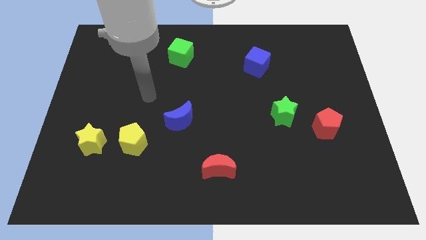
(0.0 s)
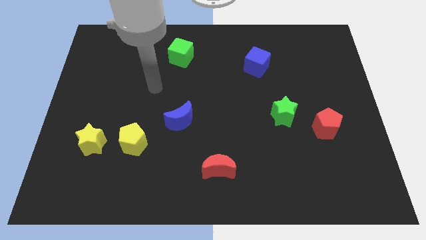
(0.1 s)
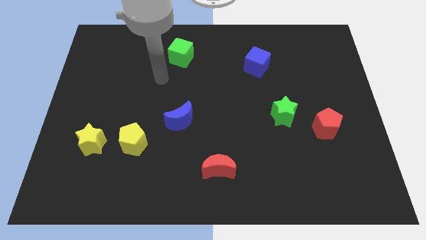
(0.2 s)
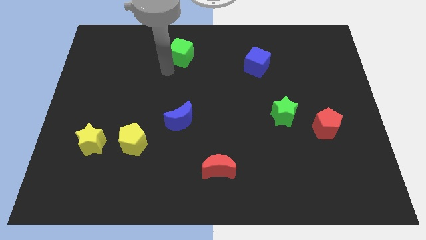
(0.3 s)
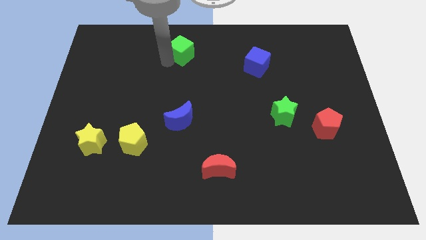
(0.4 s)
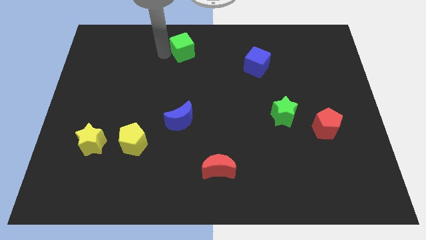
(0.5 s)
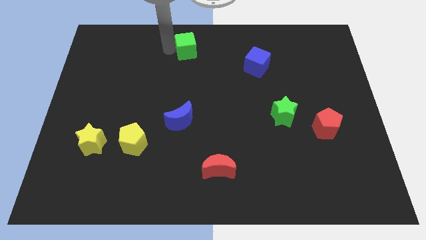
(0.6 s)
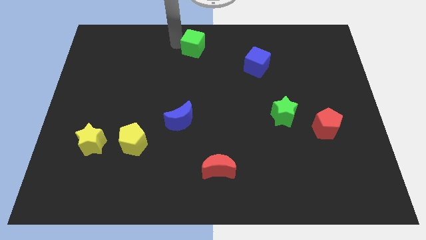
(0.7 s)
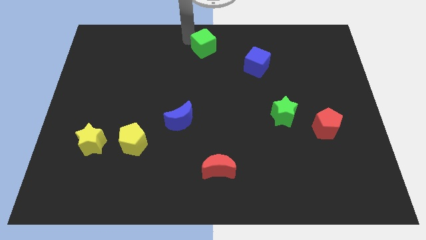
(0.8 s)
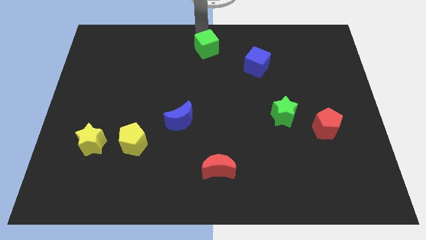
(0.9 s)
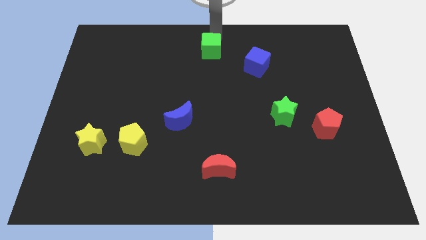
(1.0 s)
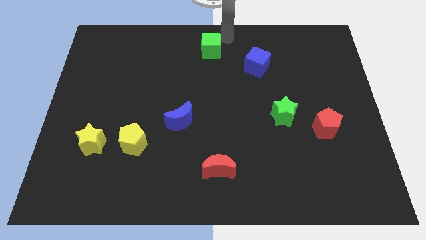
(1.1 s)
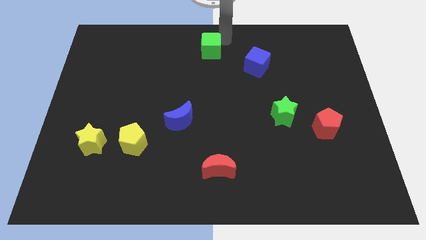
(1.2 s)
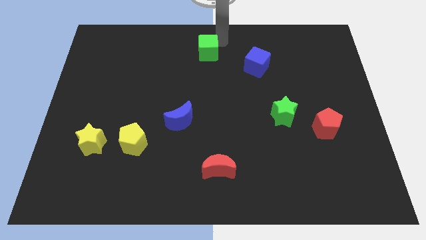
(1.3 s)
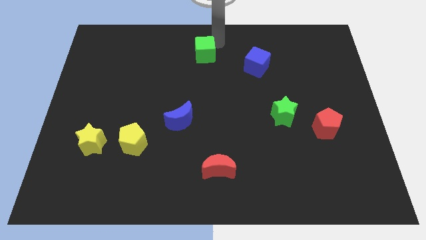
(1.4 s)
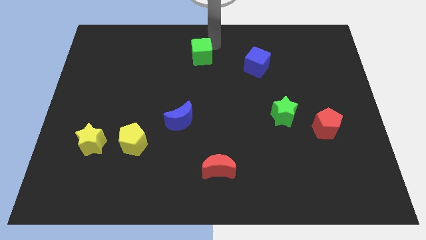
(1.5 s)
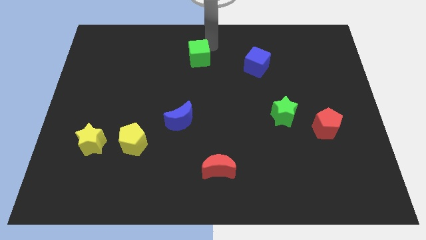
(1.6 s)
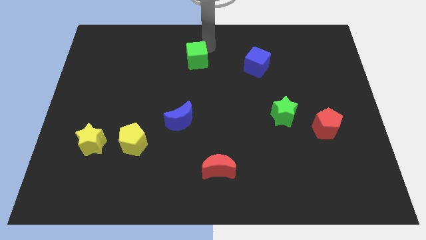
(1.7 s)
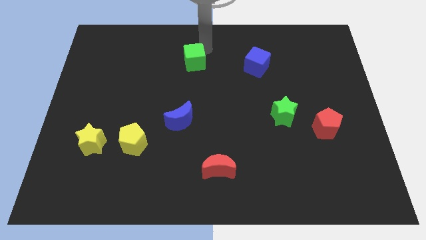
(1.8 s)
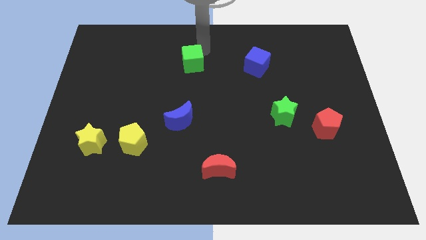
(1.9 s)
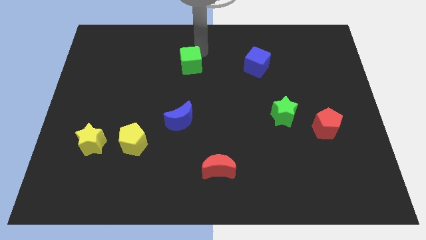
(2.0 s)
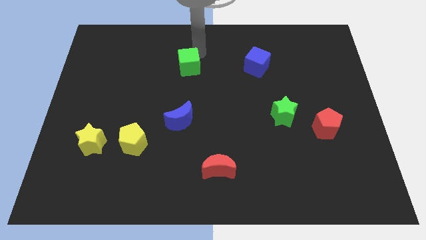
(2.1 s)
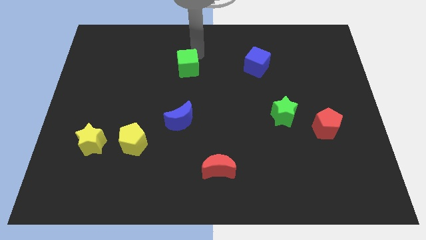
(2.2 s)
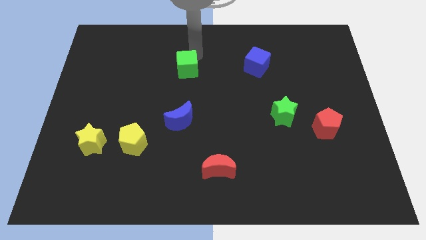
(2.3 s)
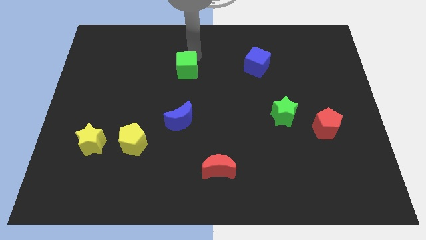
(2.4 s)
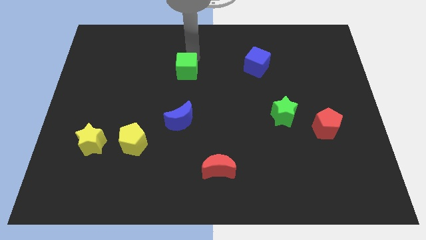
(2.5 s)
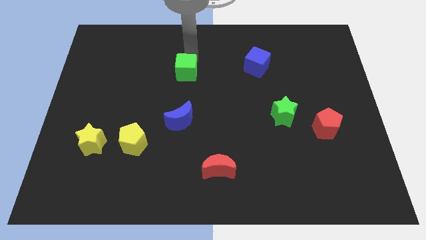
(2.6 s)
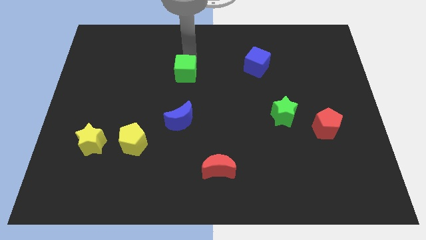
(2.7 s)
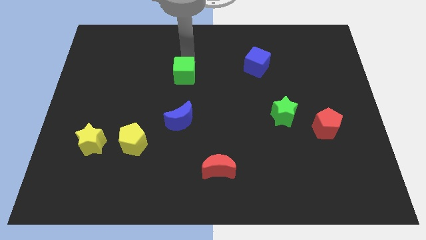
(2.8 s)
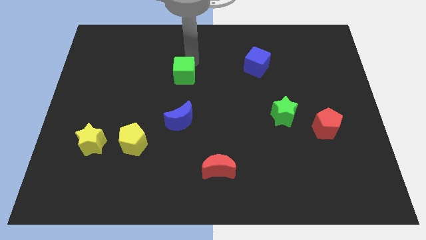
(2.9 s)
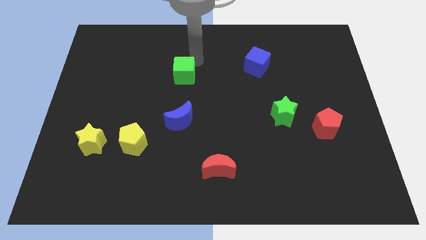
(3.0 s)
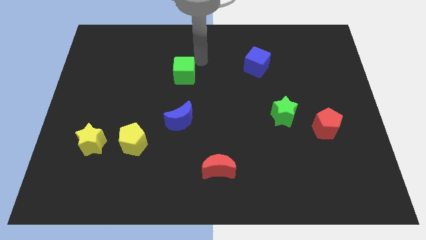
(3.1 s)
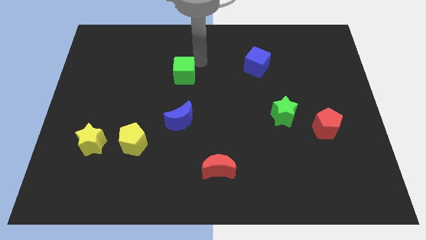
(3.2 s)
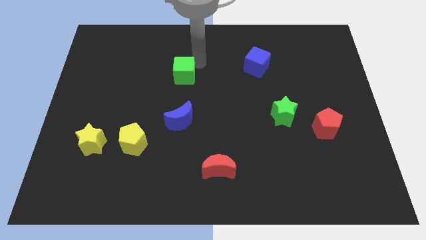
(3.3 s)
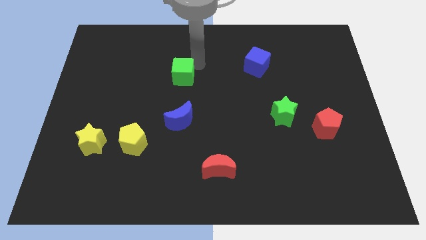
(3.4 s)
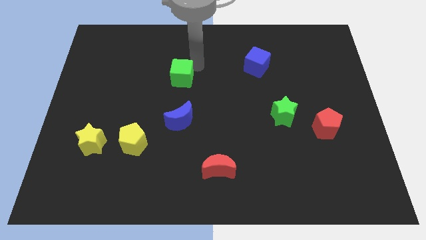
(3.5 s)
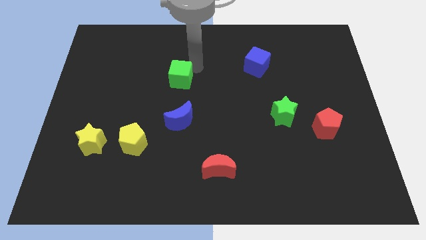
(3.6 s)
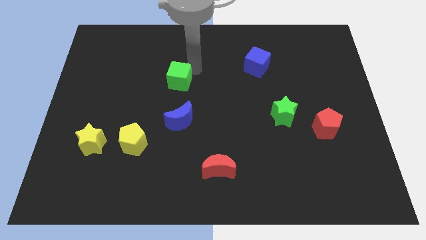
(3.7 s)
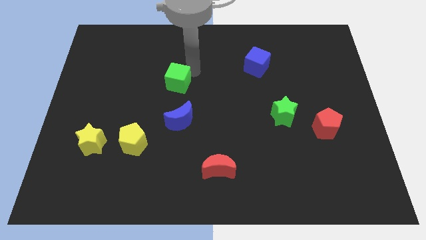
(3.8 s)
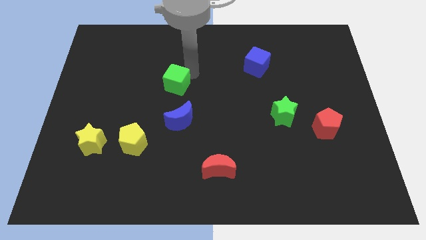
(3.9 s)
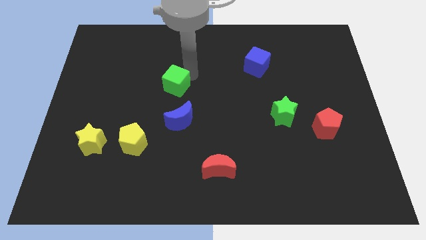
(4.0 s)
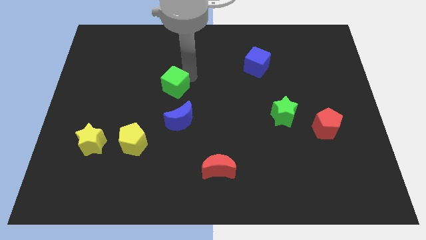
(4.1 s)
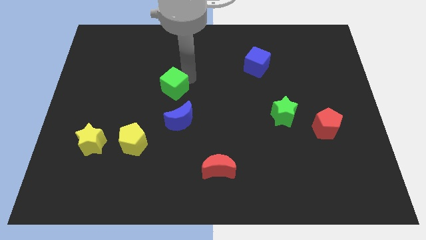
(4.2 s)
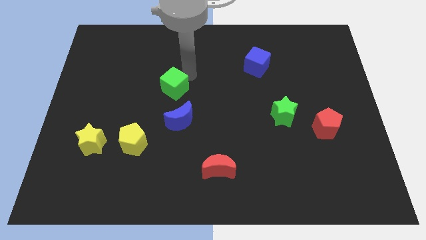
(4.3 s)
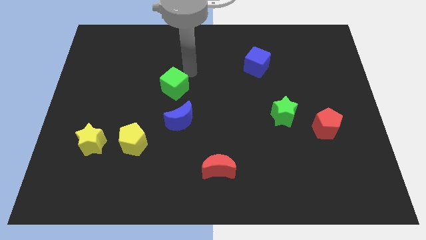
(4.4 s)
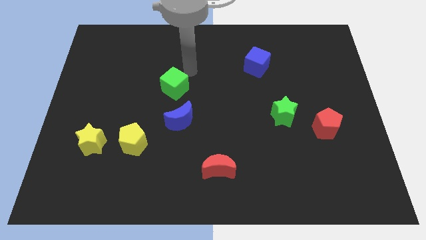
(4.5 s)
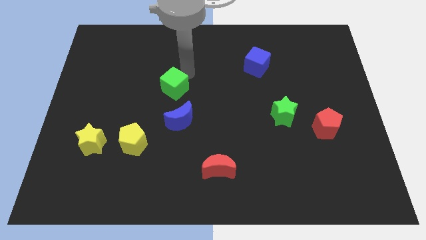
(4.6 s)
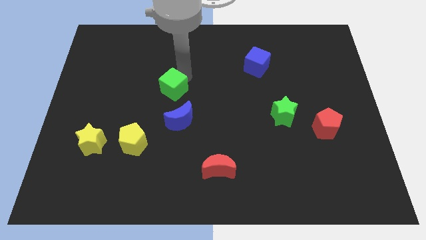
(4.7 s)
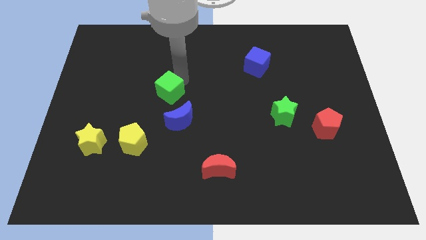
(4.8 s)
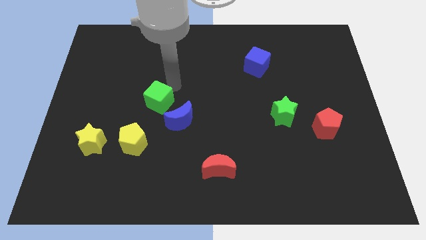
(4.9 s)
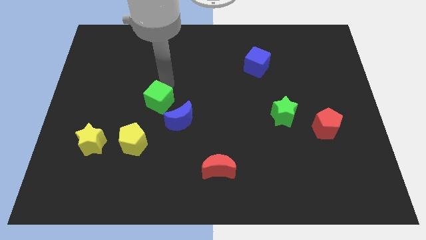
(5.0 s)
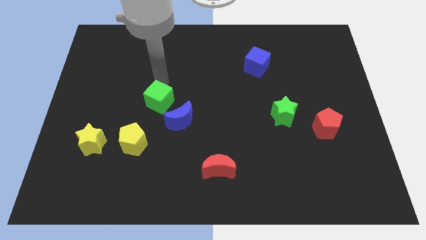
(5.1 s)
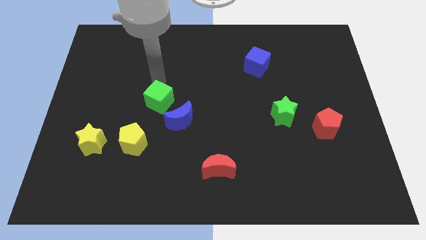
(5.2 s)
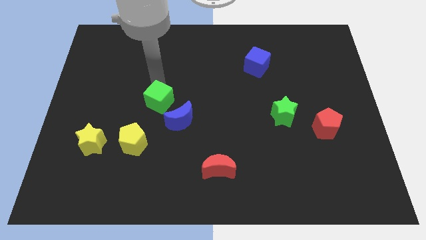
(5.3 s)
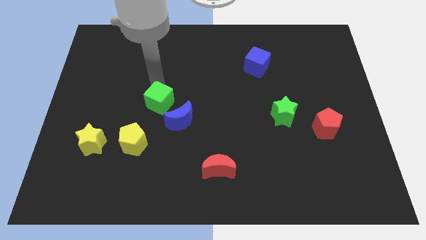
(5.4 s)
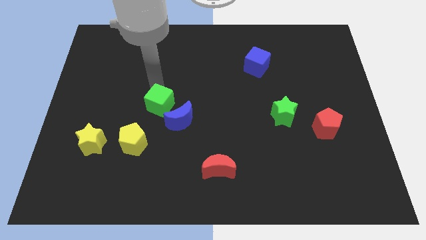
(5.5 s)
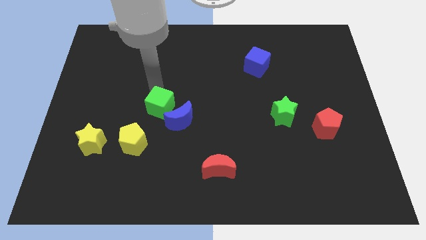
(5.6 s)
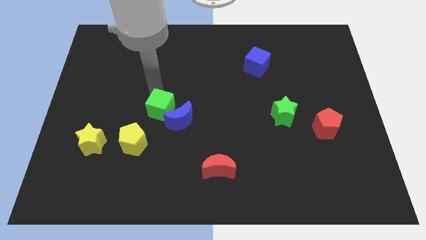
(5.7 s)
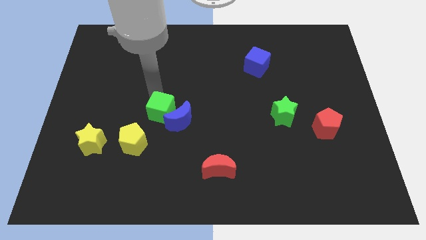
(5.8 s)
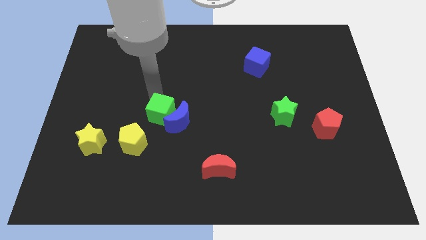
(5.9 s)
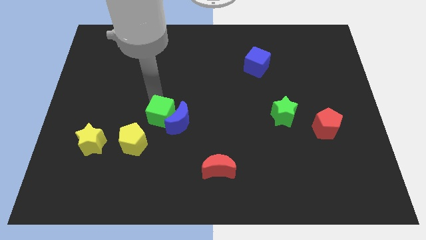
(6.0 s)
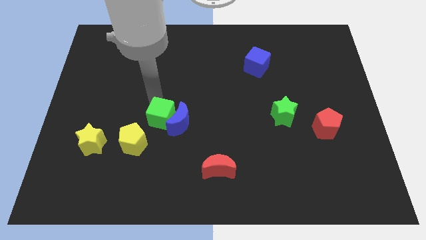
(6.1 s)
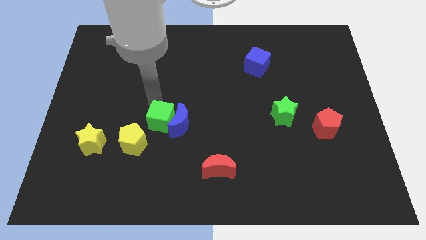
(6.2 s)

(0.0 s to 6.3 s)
move the green cube down

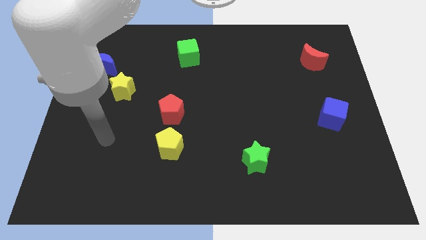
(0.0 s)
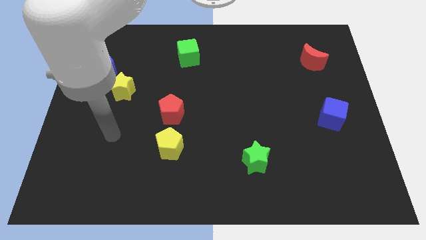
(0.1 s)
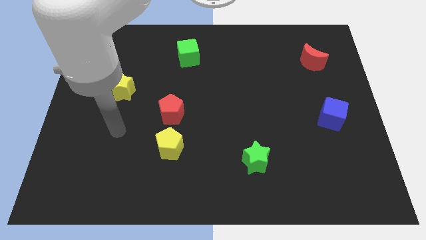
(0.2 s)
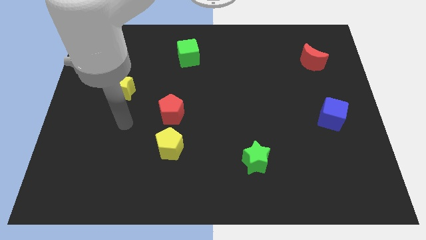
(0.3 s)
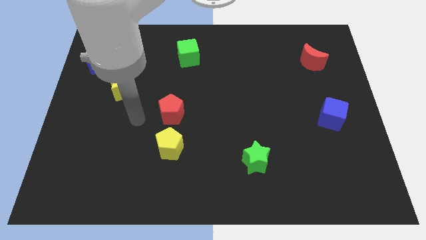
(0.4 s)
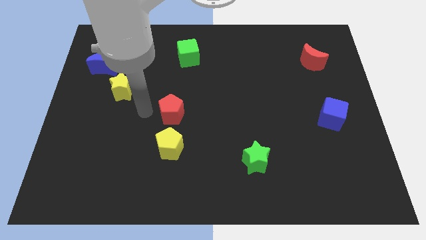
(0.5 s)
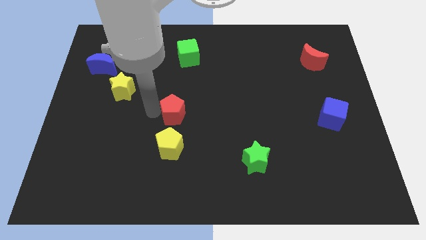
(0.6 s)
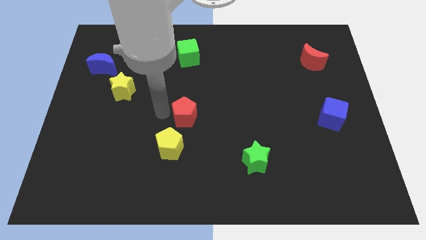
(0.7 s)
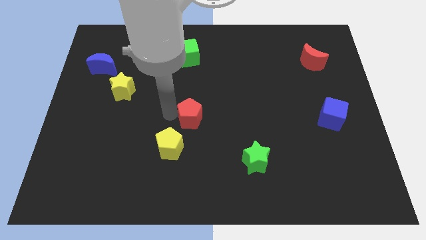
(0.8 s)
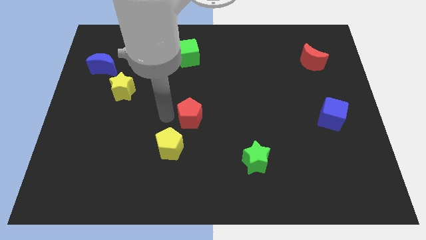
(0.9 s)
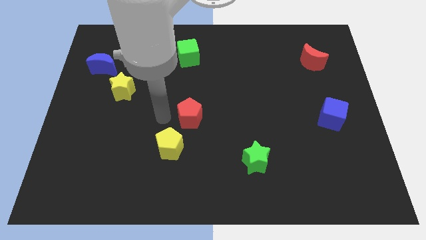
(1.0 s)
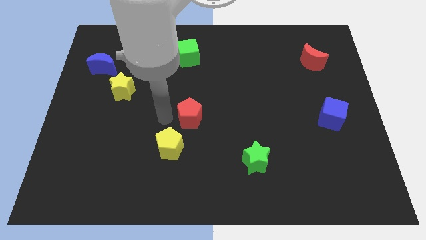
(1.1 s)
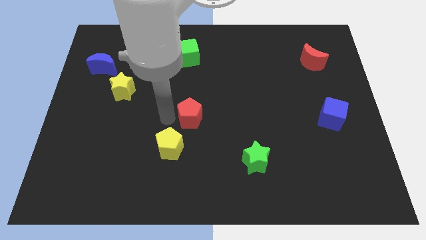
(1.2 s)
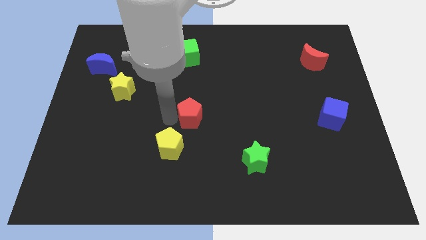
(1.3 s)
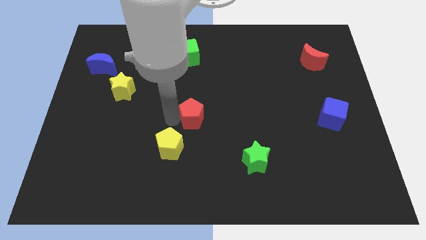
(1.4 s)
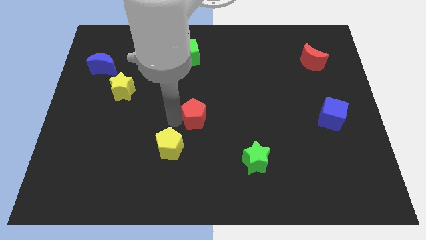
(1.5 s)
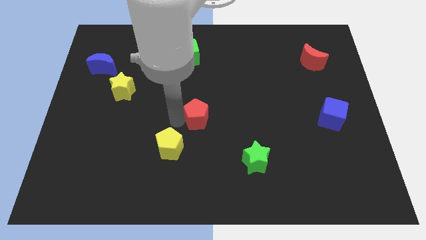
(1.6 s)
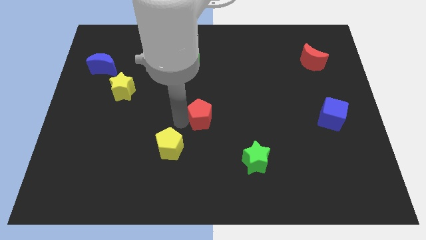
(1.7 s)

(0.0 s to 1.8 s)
slightly slide the red pentagon right
